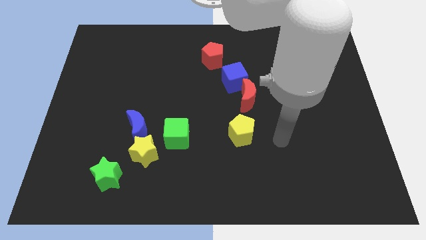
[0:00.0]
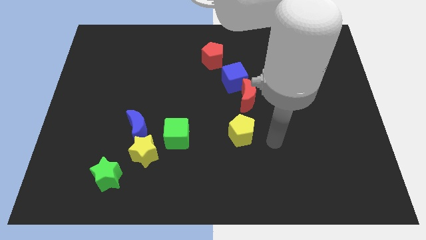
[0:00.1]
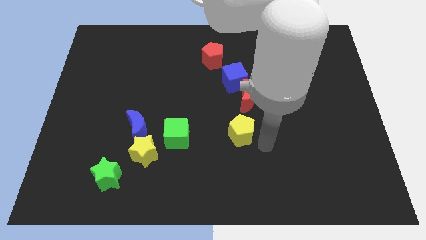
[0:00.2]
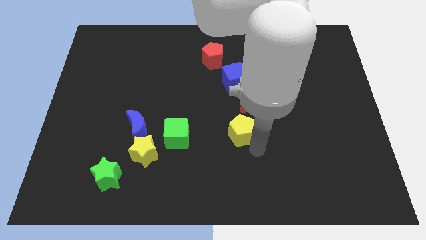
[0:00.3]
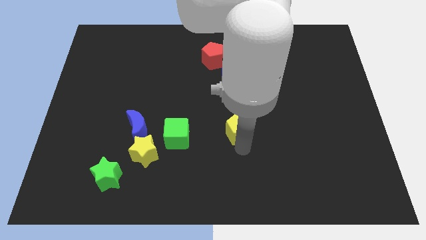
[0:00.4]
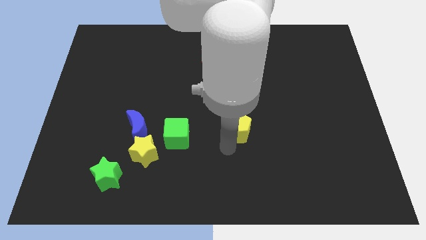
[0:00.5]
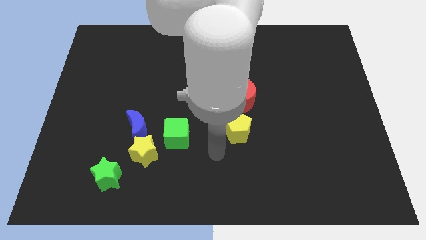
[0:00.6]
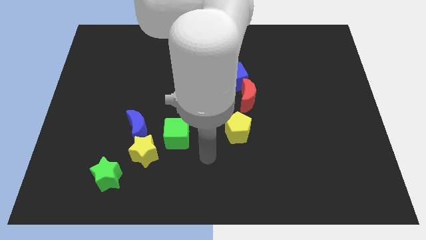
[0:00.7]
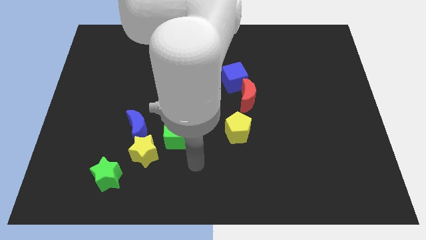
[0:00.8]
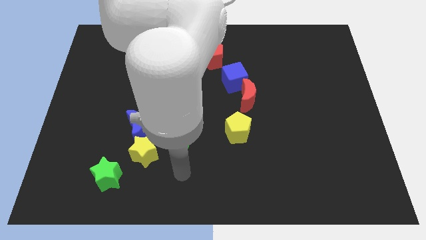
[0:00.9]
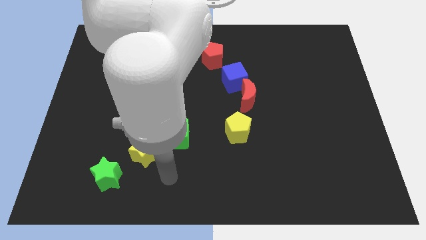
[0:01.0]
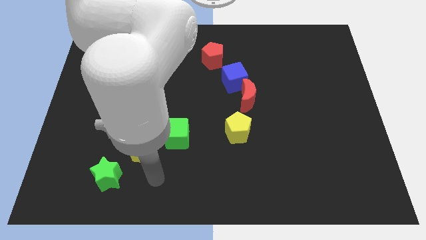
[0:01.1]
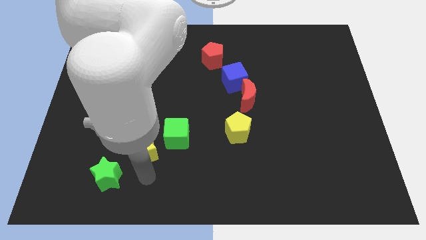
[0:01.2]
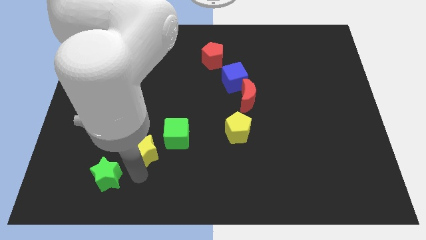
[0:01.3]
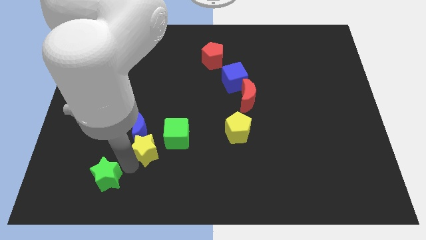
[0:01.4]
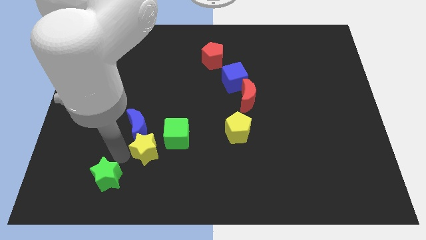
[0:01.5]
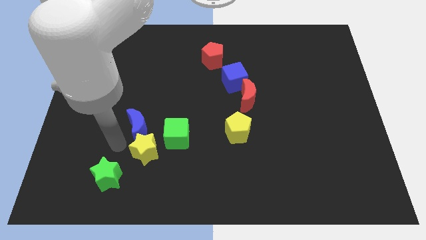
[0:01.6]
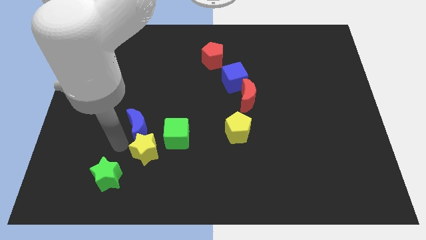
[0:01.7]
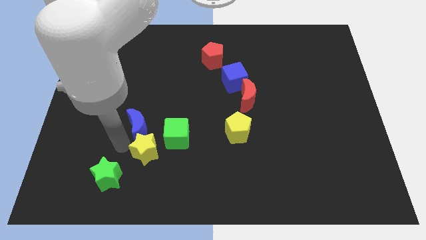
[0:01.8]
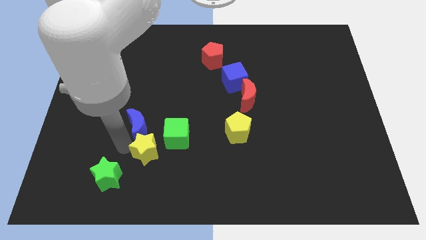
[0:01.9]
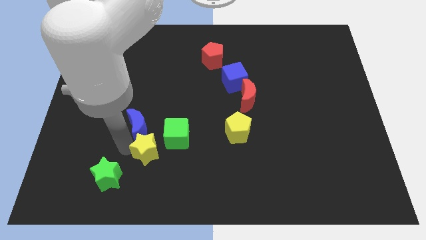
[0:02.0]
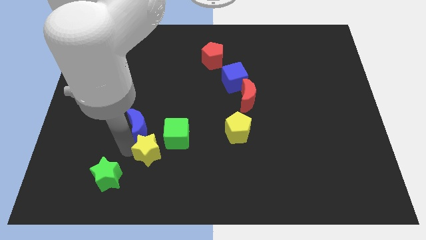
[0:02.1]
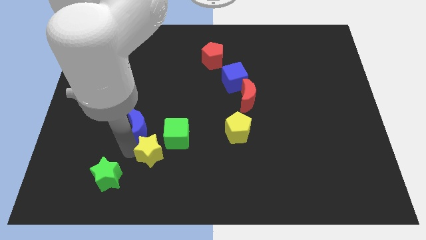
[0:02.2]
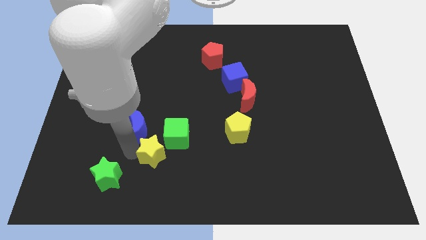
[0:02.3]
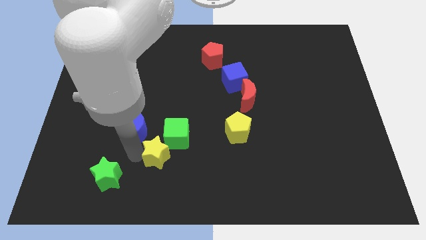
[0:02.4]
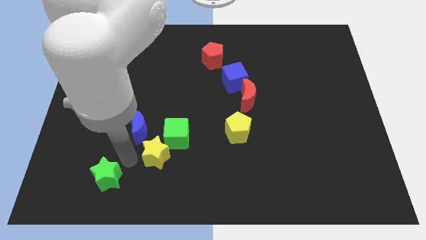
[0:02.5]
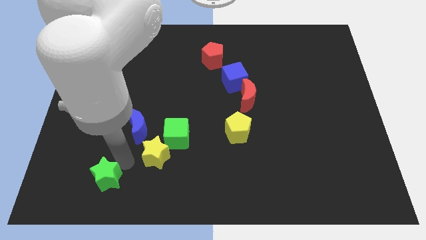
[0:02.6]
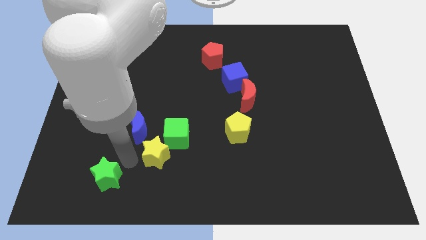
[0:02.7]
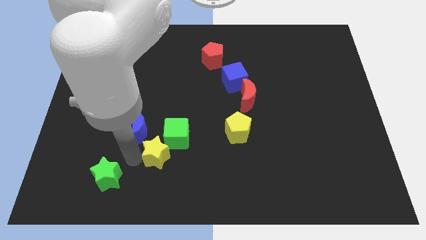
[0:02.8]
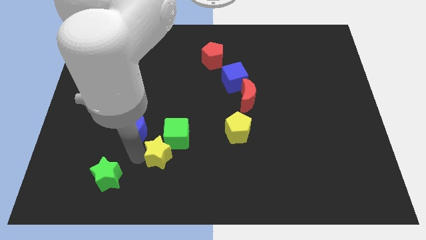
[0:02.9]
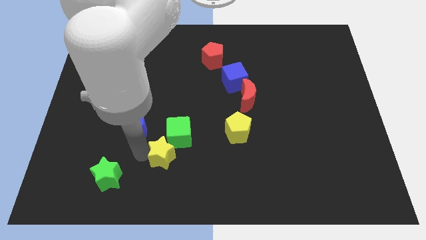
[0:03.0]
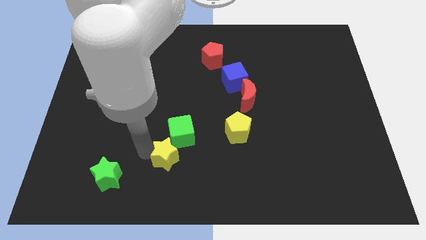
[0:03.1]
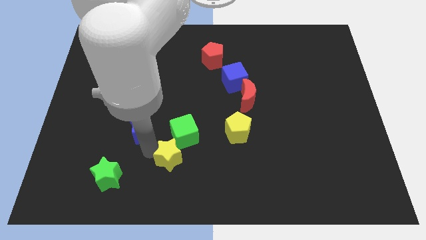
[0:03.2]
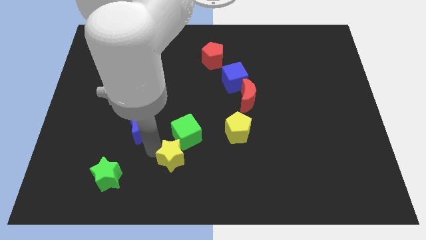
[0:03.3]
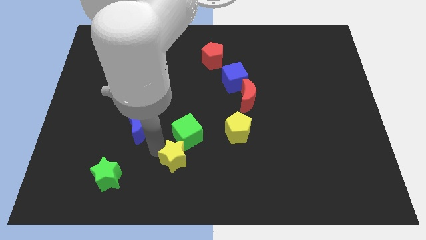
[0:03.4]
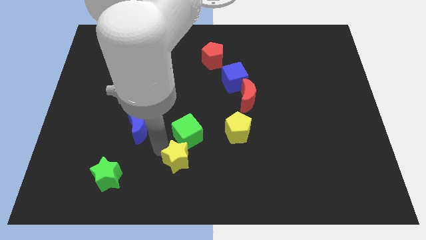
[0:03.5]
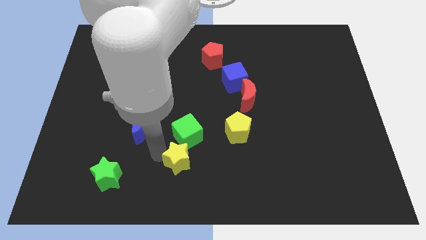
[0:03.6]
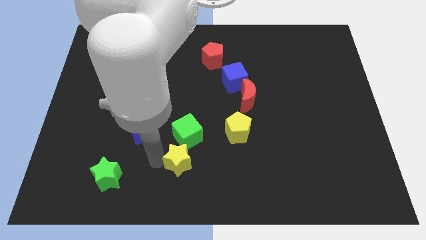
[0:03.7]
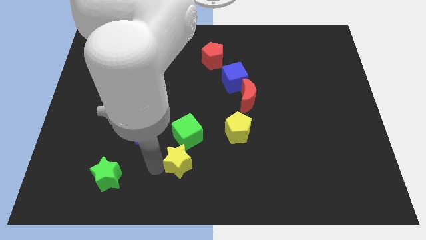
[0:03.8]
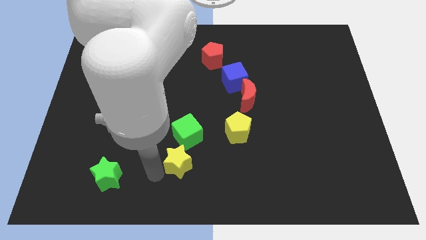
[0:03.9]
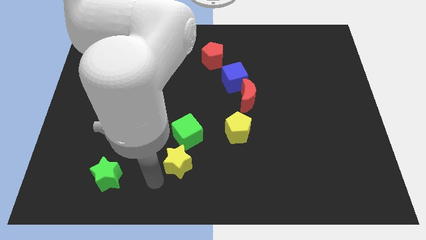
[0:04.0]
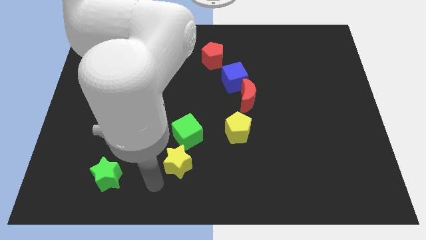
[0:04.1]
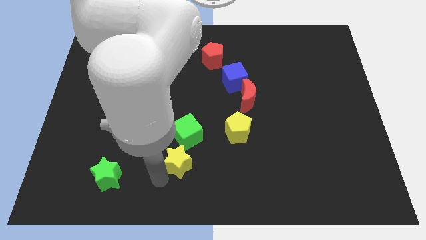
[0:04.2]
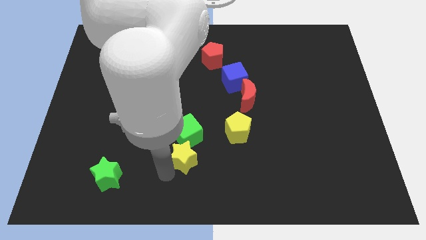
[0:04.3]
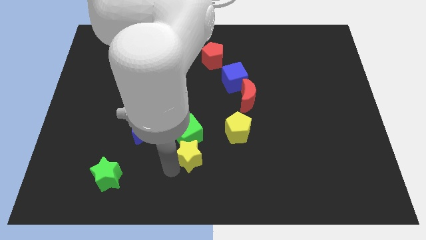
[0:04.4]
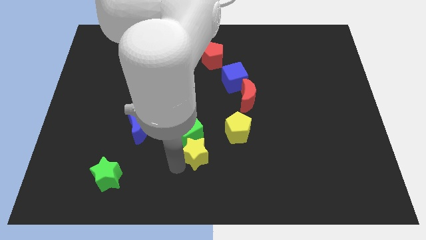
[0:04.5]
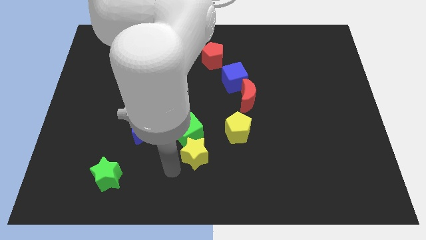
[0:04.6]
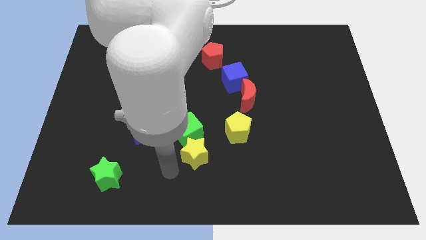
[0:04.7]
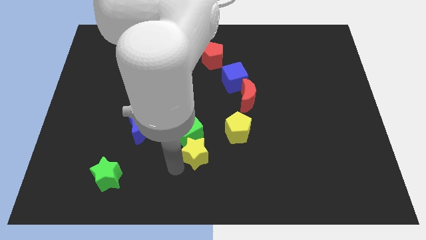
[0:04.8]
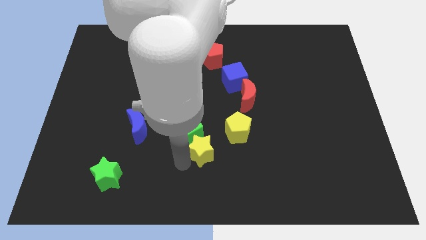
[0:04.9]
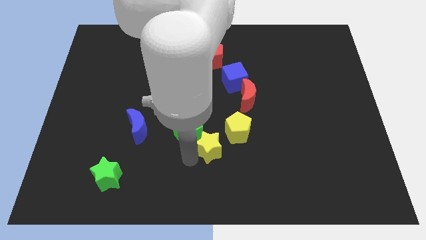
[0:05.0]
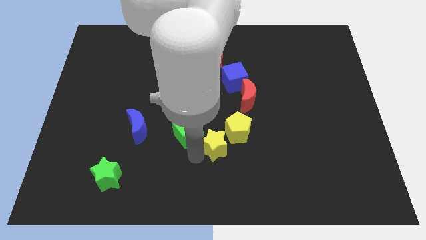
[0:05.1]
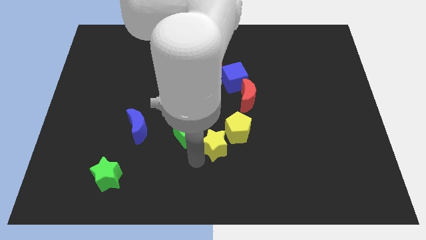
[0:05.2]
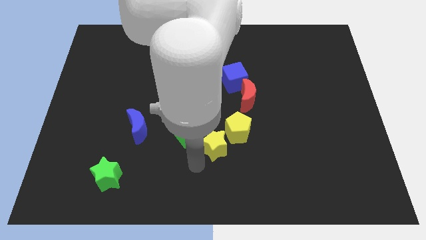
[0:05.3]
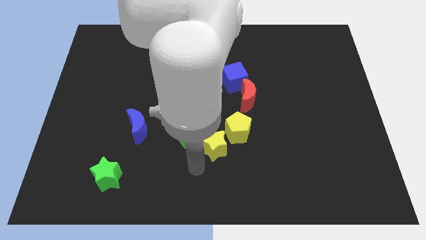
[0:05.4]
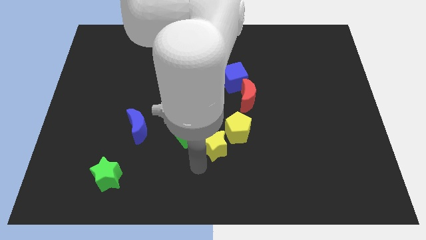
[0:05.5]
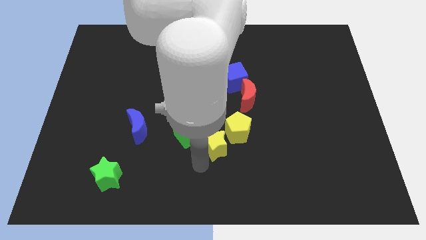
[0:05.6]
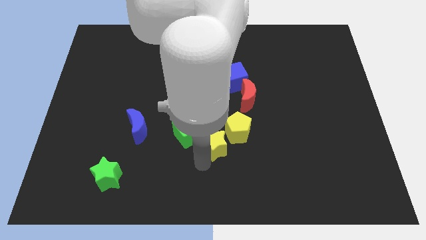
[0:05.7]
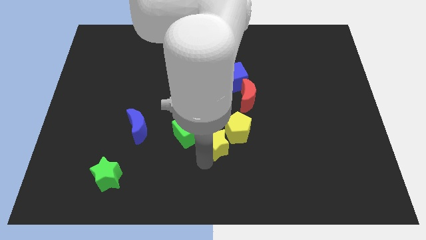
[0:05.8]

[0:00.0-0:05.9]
push the yellow star towards the yellow pentagon

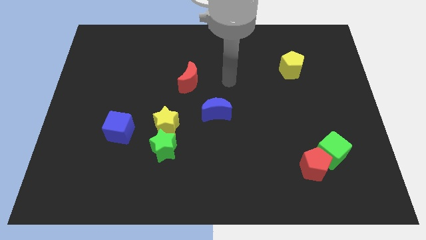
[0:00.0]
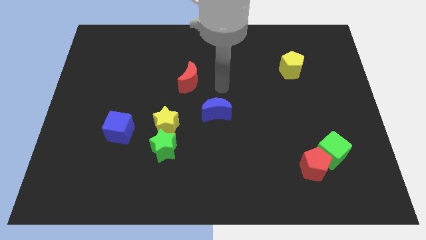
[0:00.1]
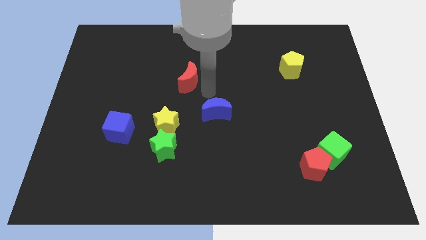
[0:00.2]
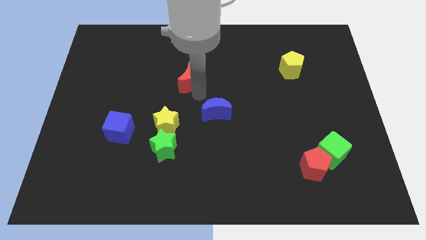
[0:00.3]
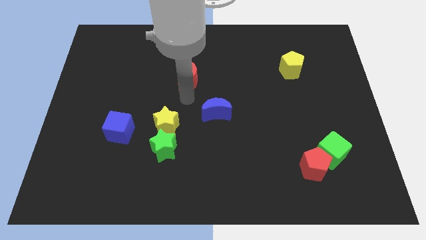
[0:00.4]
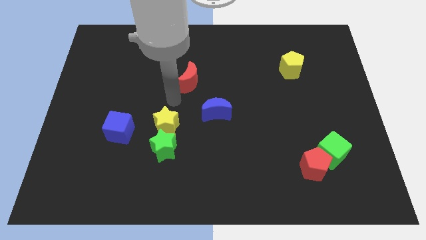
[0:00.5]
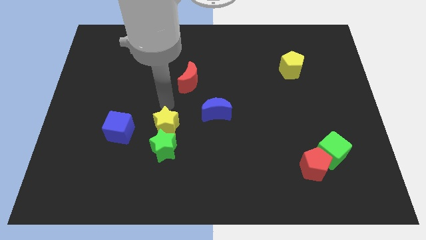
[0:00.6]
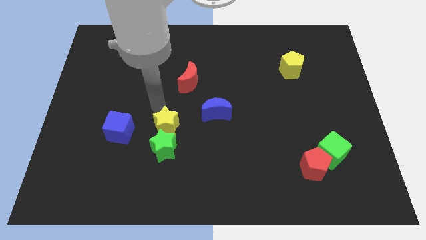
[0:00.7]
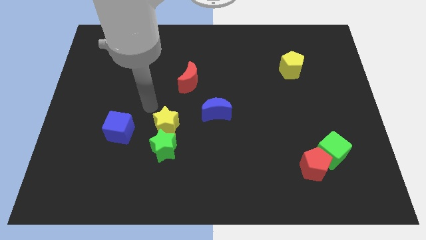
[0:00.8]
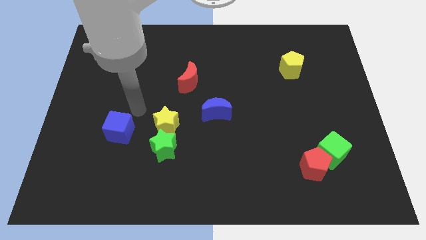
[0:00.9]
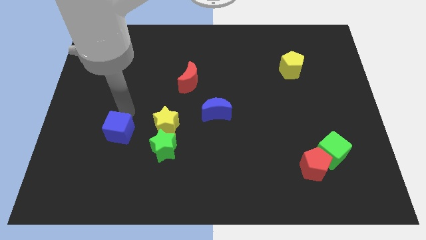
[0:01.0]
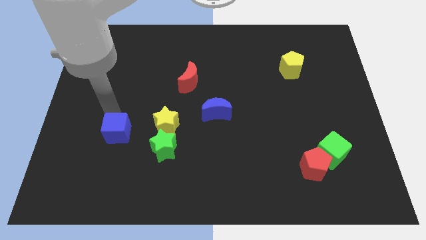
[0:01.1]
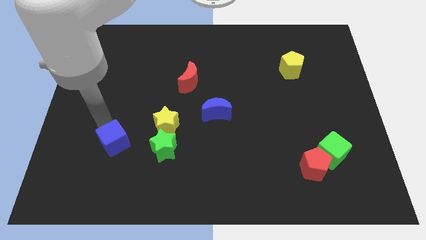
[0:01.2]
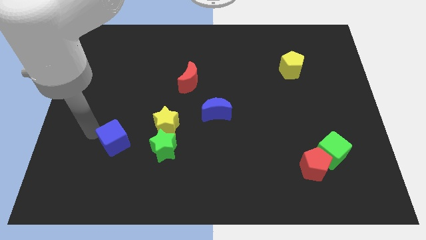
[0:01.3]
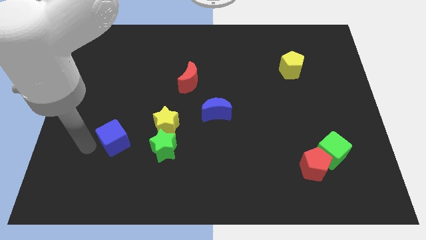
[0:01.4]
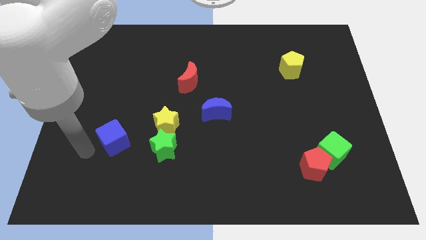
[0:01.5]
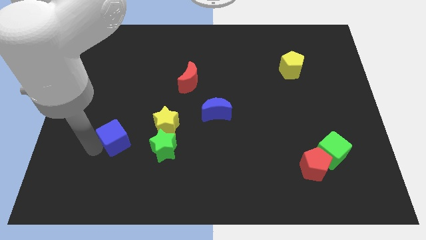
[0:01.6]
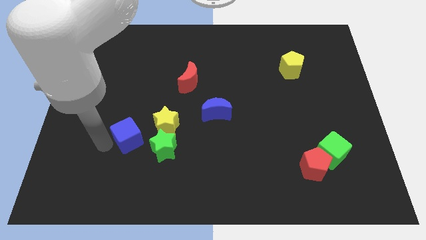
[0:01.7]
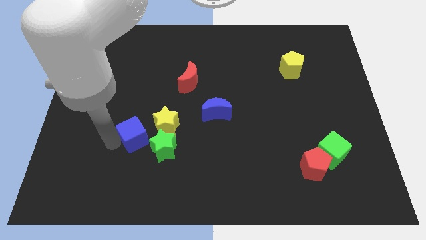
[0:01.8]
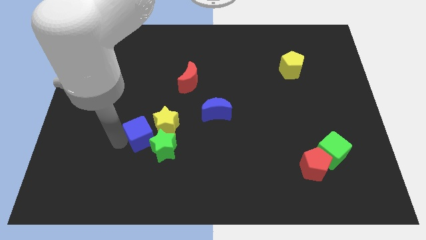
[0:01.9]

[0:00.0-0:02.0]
push the blue cube to the yellow star
